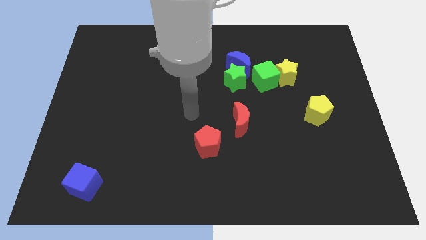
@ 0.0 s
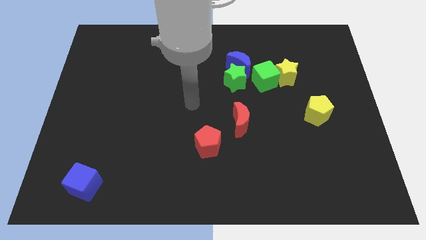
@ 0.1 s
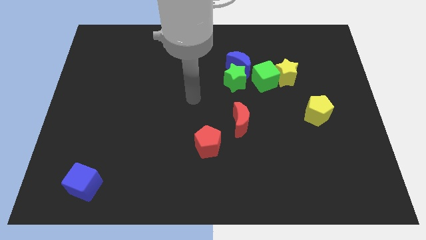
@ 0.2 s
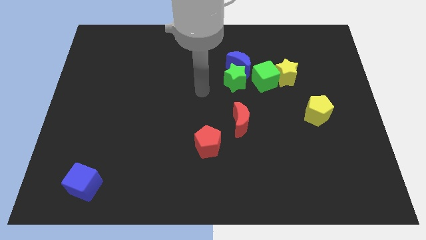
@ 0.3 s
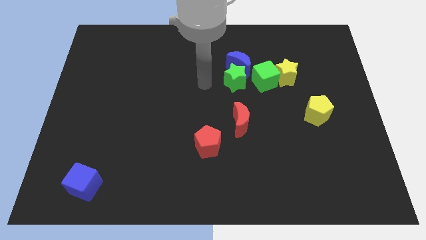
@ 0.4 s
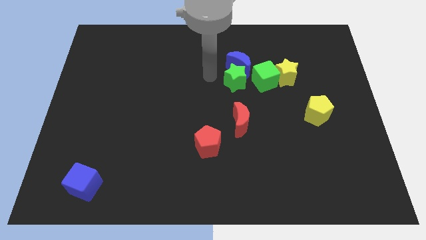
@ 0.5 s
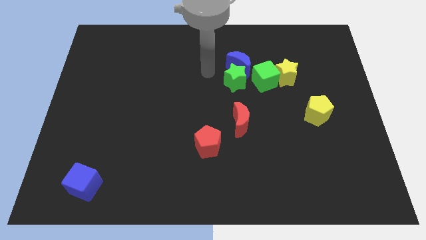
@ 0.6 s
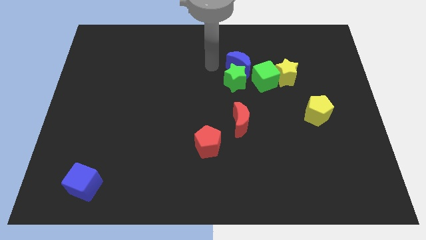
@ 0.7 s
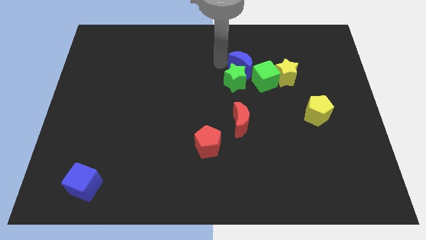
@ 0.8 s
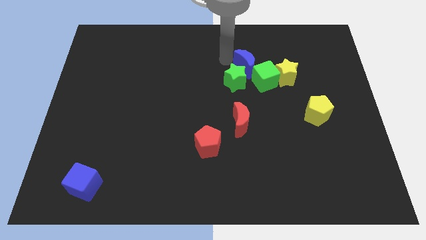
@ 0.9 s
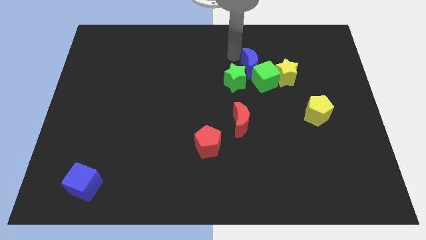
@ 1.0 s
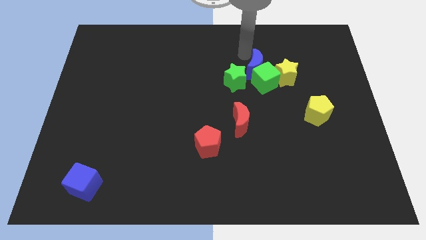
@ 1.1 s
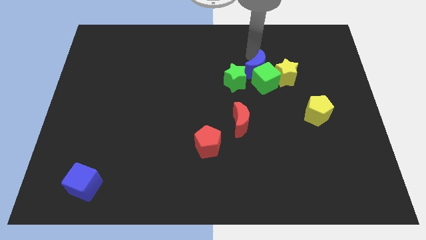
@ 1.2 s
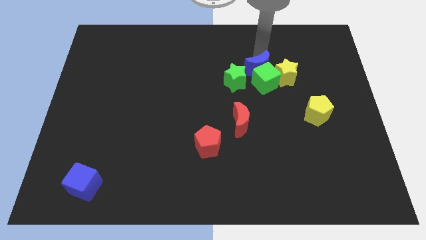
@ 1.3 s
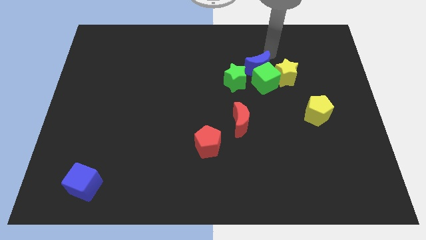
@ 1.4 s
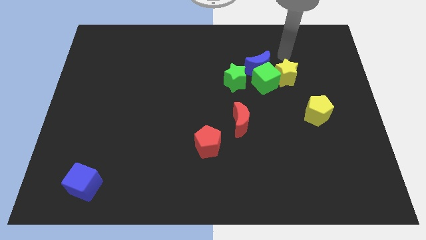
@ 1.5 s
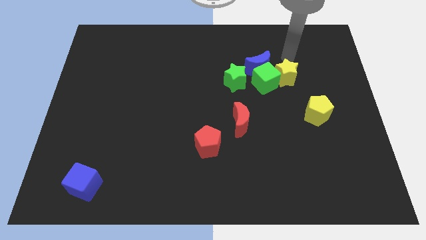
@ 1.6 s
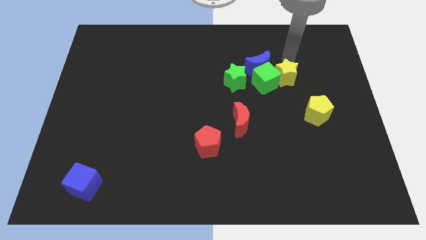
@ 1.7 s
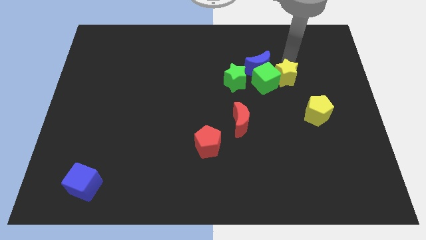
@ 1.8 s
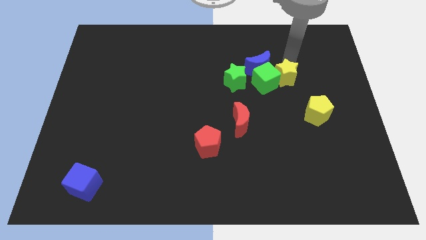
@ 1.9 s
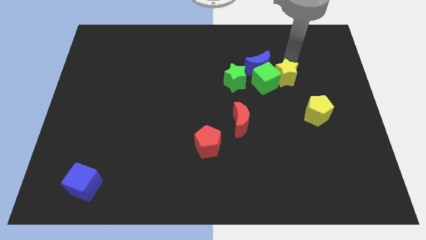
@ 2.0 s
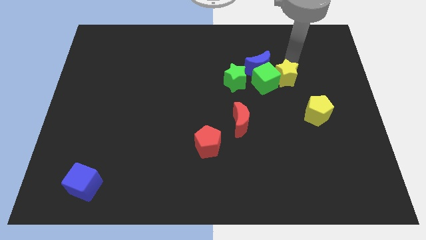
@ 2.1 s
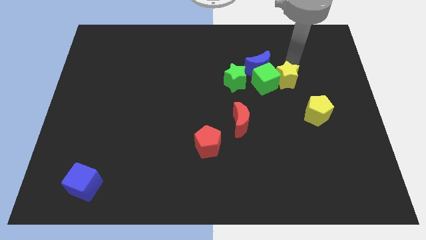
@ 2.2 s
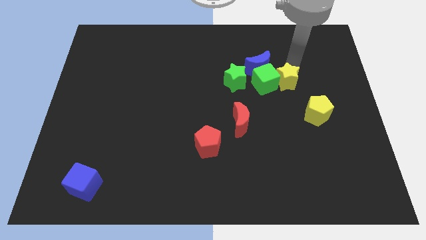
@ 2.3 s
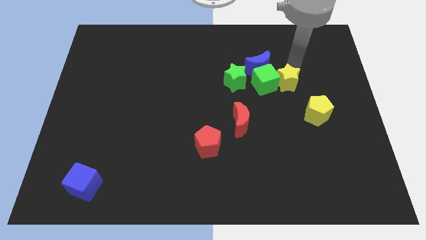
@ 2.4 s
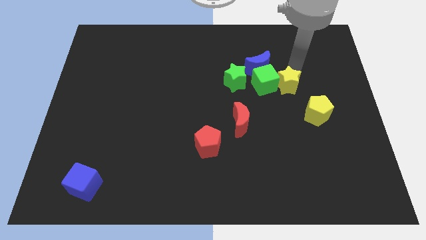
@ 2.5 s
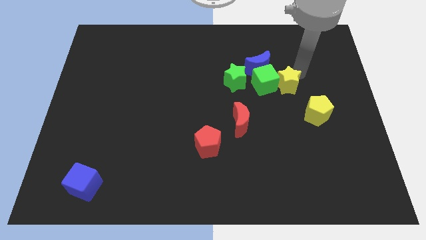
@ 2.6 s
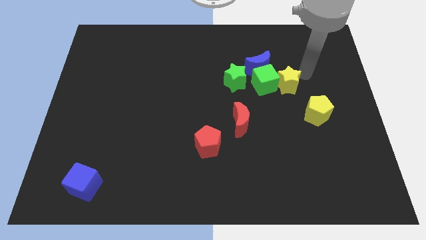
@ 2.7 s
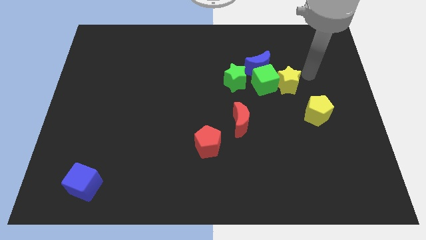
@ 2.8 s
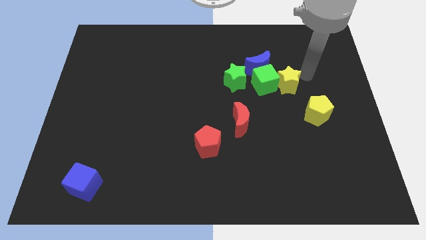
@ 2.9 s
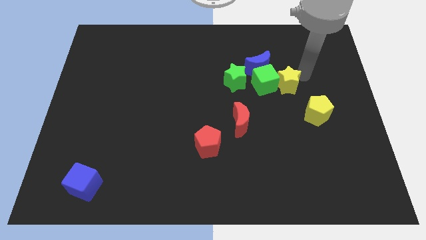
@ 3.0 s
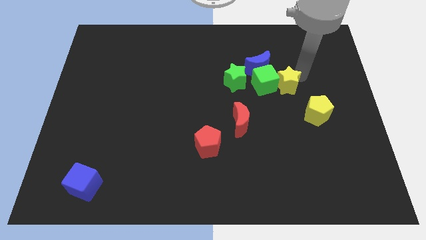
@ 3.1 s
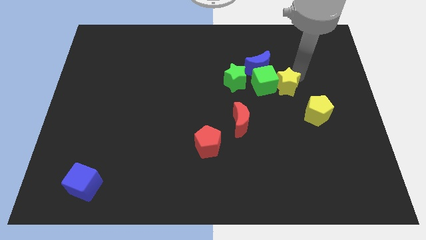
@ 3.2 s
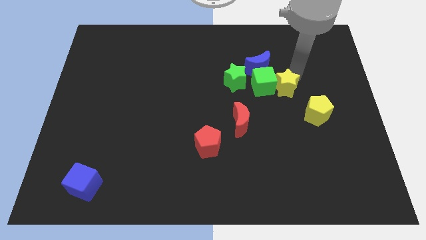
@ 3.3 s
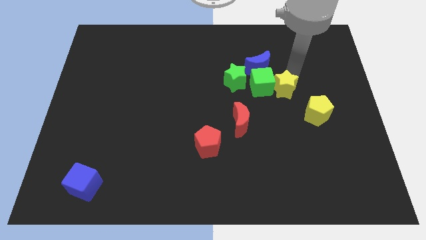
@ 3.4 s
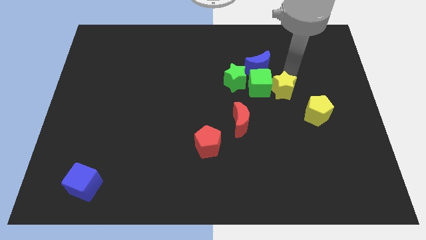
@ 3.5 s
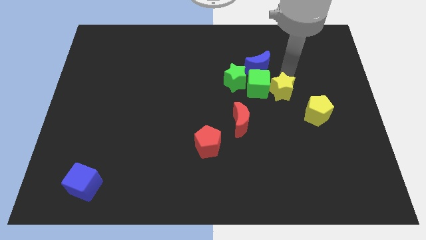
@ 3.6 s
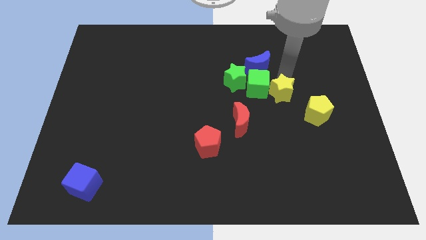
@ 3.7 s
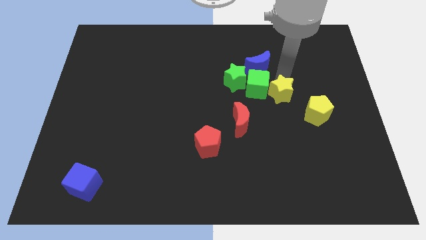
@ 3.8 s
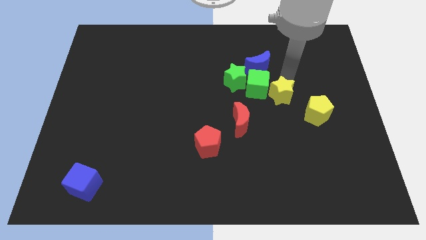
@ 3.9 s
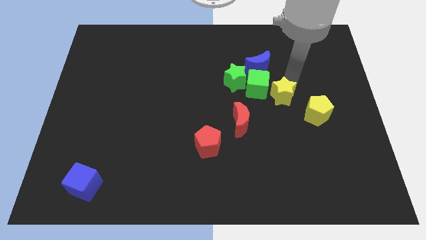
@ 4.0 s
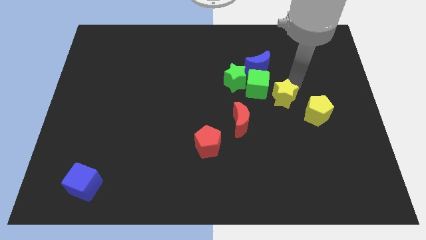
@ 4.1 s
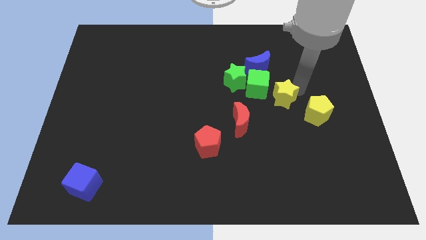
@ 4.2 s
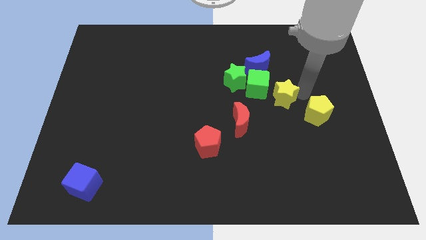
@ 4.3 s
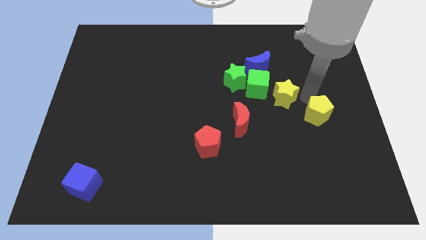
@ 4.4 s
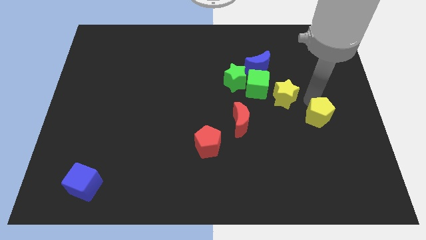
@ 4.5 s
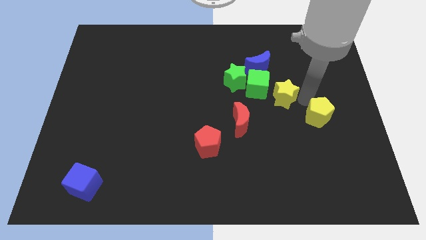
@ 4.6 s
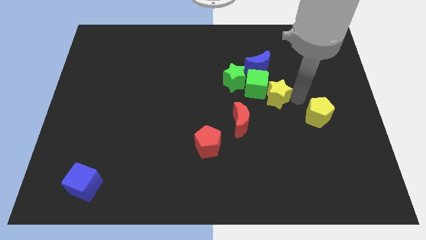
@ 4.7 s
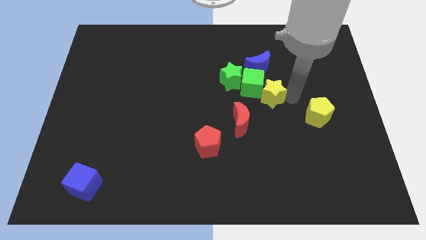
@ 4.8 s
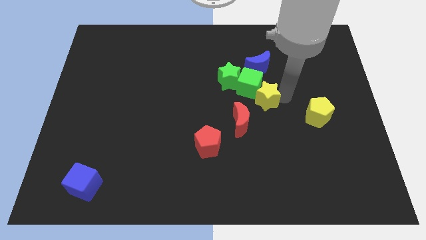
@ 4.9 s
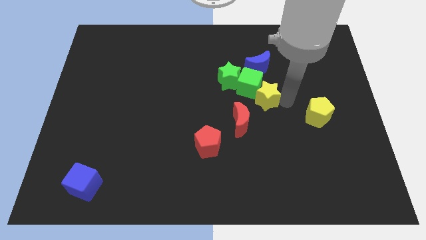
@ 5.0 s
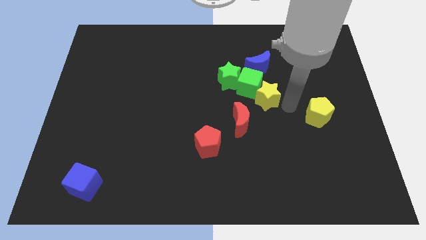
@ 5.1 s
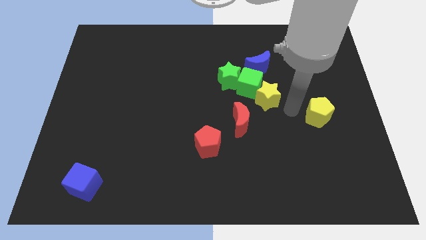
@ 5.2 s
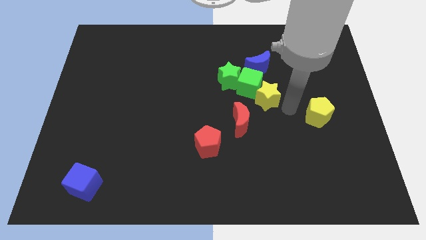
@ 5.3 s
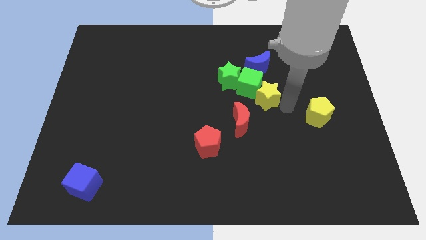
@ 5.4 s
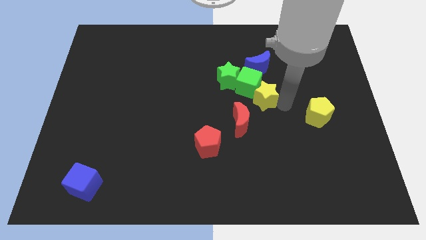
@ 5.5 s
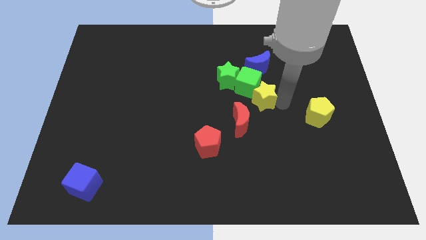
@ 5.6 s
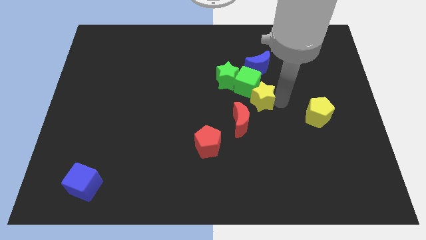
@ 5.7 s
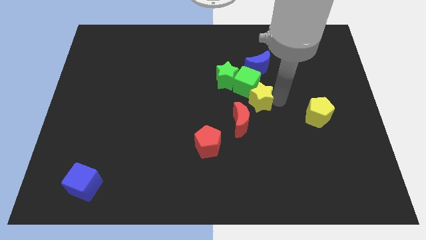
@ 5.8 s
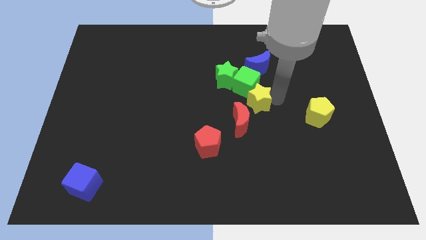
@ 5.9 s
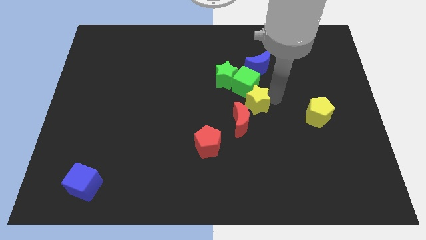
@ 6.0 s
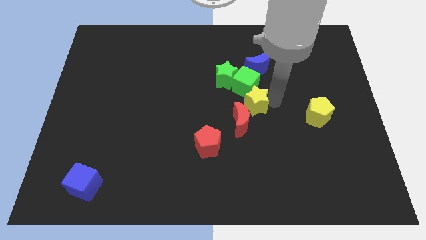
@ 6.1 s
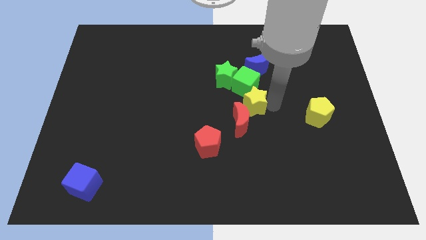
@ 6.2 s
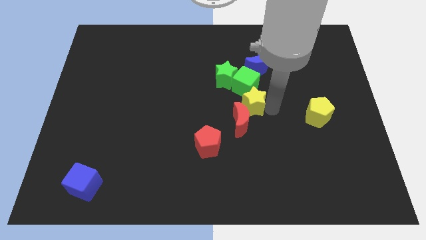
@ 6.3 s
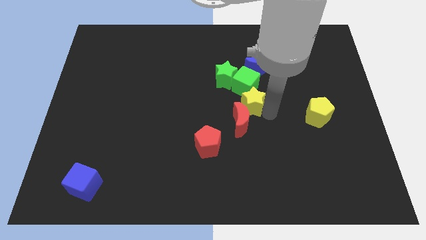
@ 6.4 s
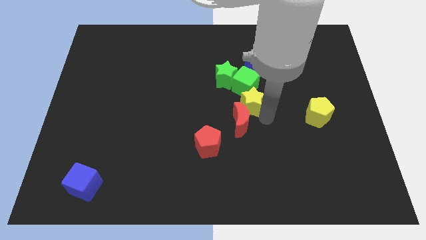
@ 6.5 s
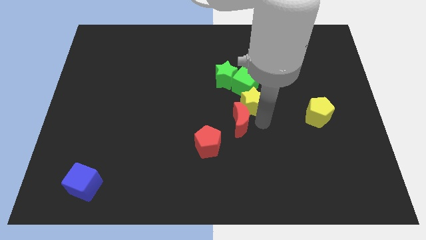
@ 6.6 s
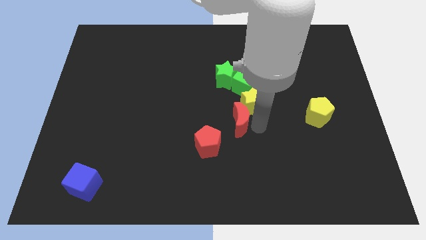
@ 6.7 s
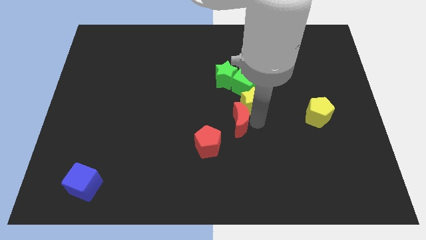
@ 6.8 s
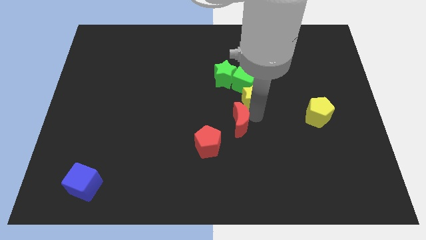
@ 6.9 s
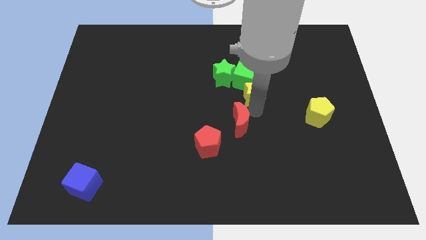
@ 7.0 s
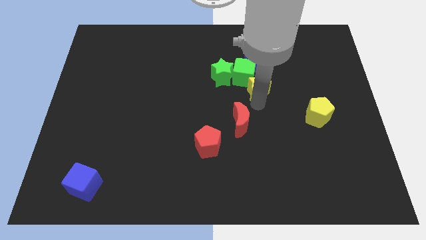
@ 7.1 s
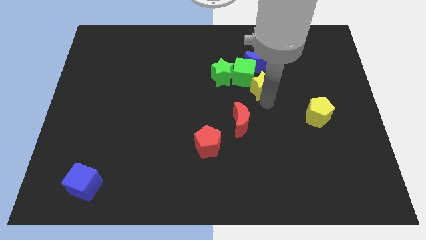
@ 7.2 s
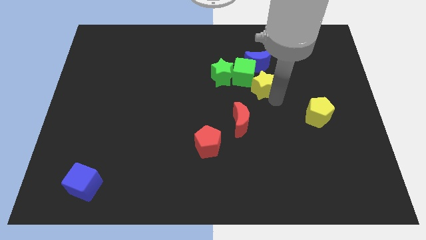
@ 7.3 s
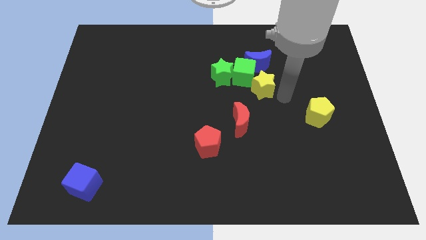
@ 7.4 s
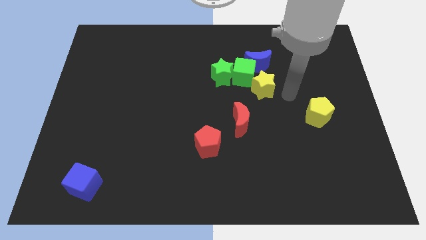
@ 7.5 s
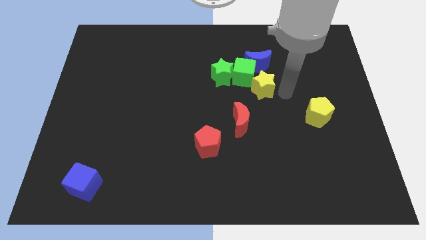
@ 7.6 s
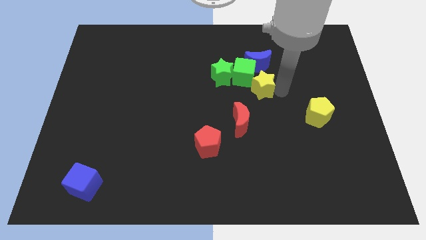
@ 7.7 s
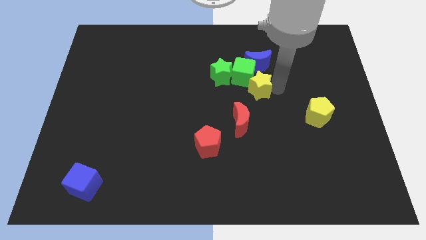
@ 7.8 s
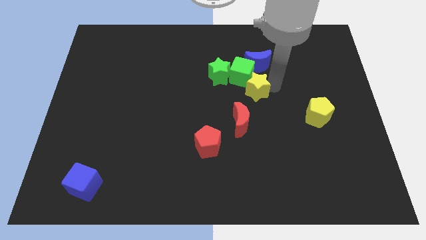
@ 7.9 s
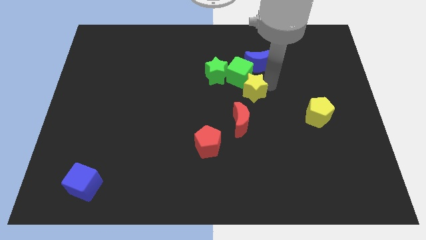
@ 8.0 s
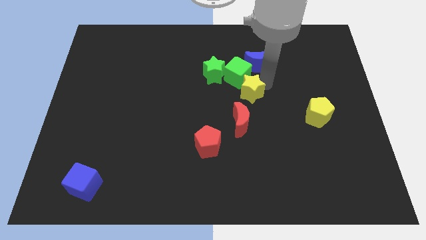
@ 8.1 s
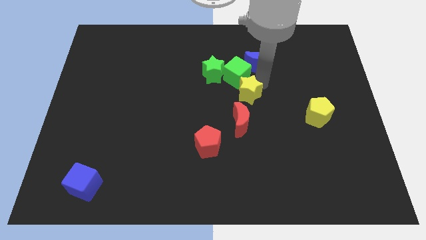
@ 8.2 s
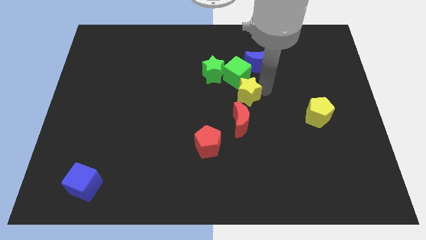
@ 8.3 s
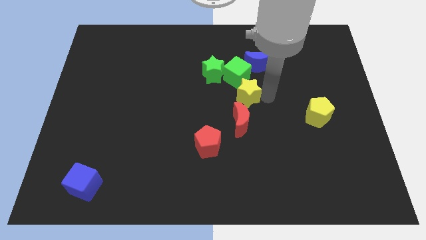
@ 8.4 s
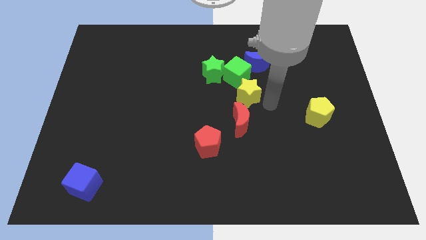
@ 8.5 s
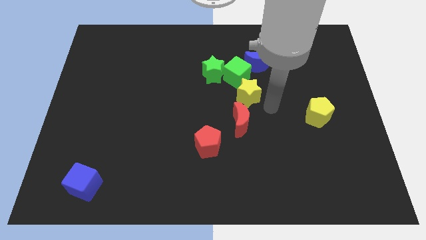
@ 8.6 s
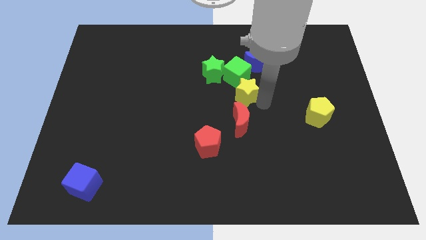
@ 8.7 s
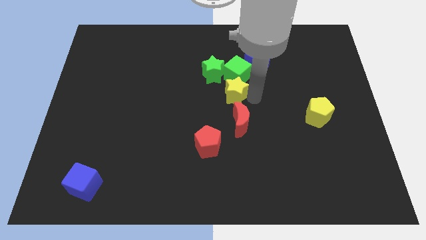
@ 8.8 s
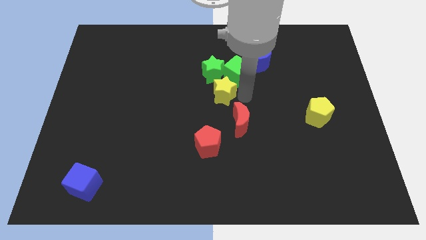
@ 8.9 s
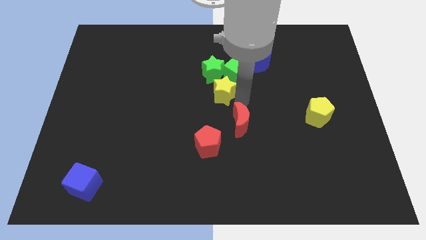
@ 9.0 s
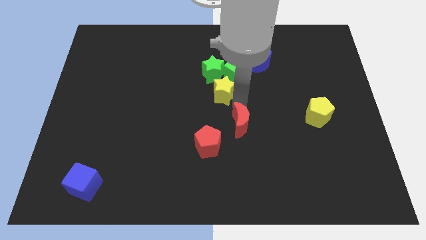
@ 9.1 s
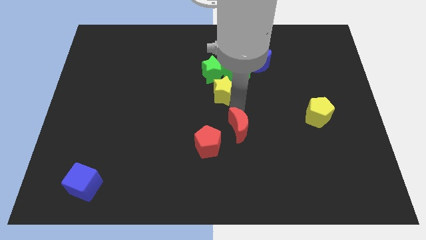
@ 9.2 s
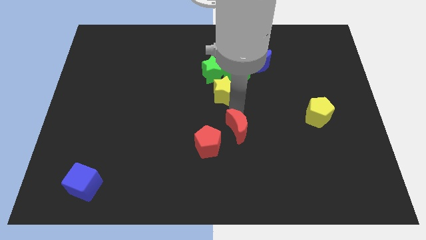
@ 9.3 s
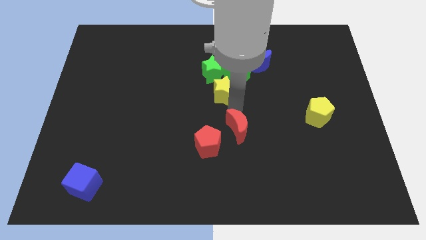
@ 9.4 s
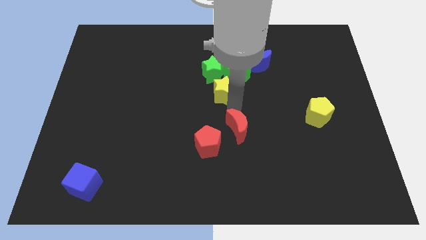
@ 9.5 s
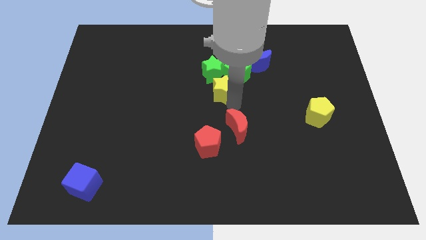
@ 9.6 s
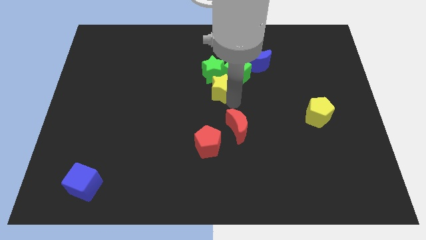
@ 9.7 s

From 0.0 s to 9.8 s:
push the yellow star towards the green star
